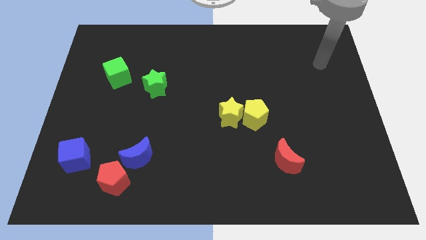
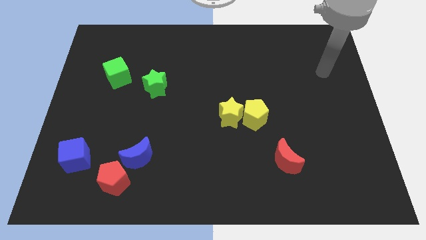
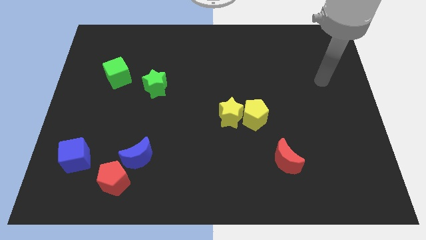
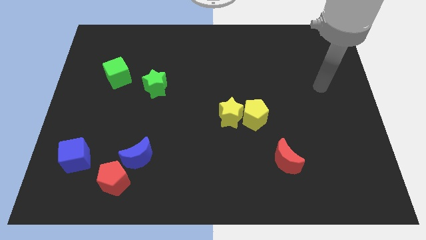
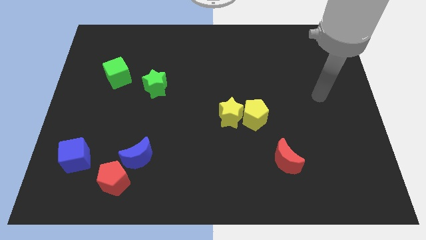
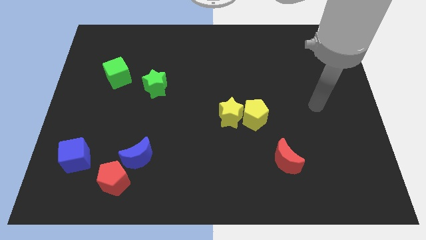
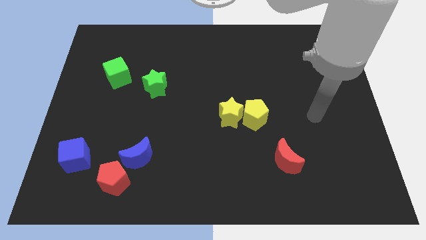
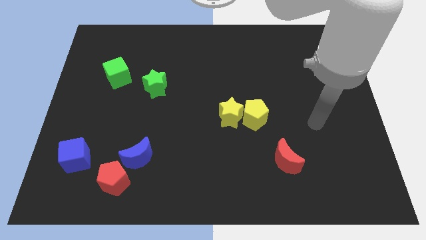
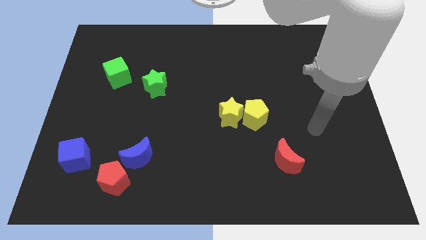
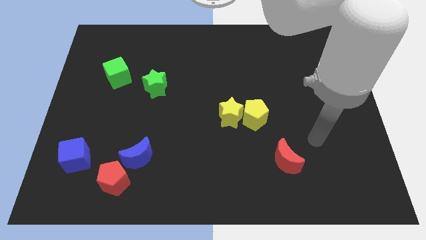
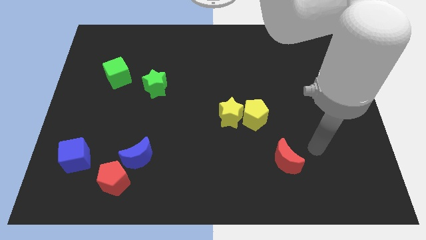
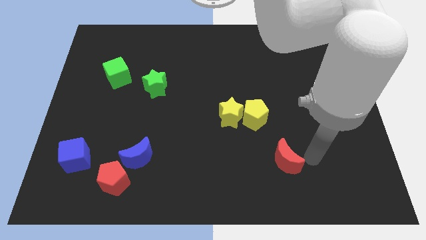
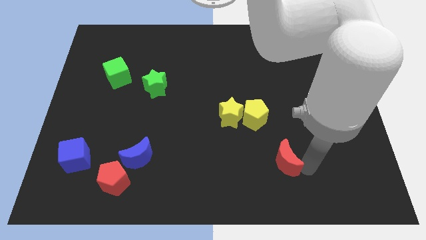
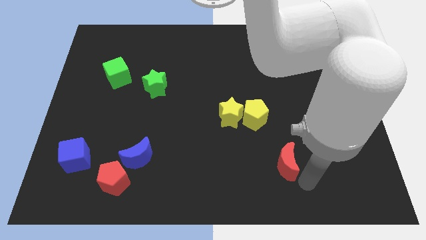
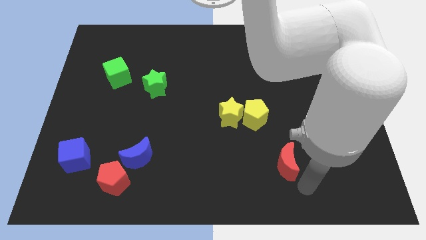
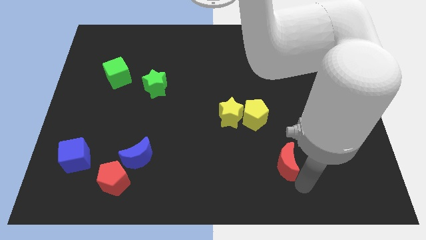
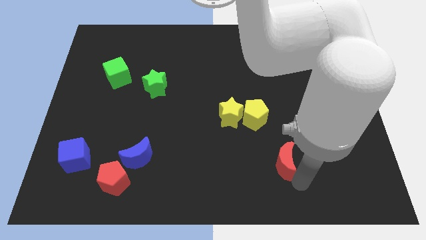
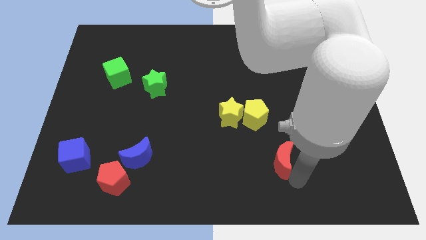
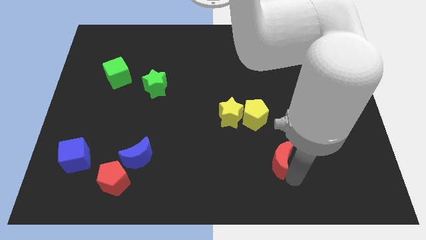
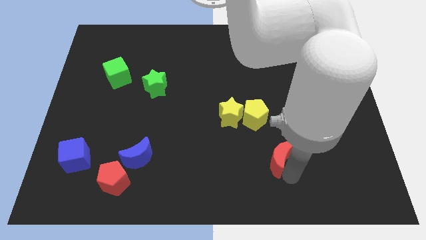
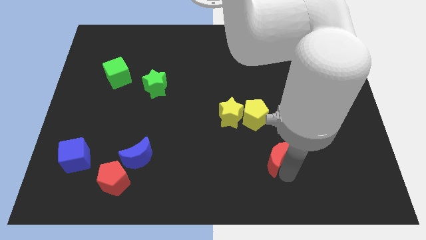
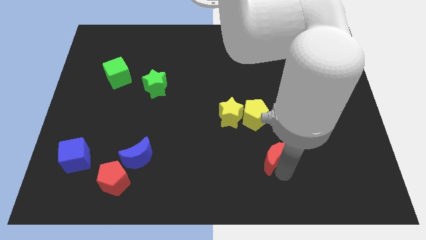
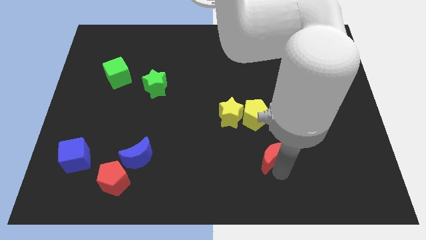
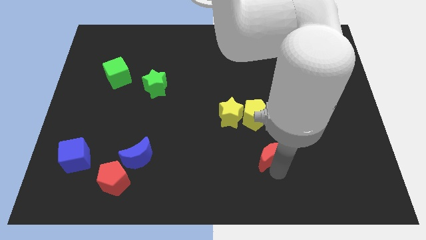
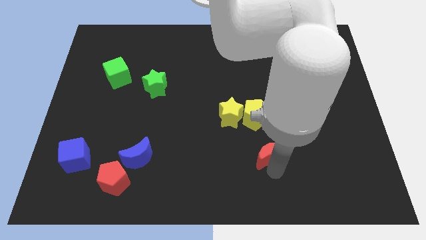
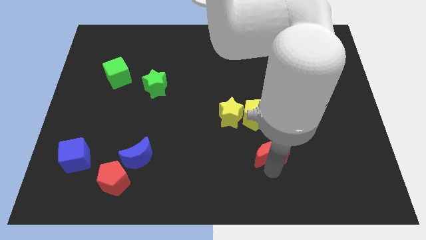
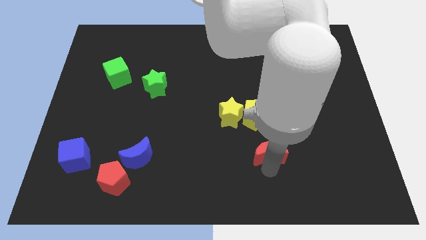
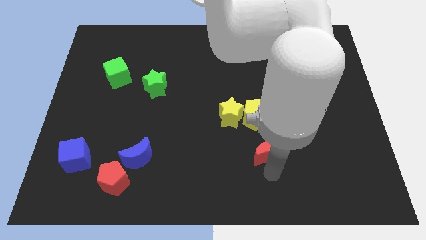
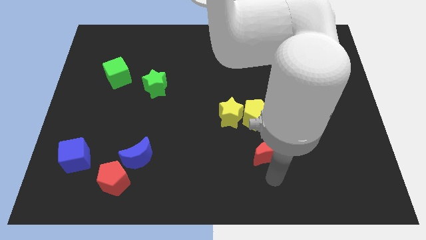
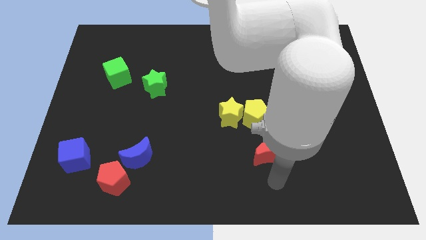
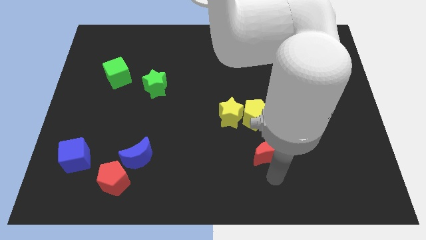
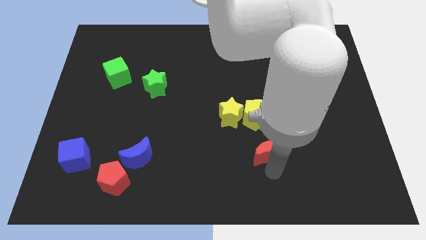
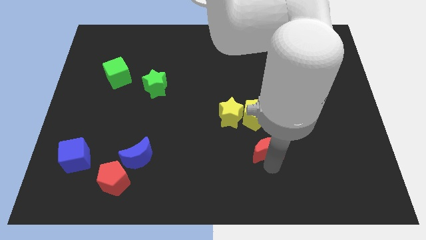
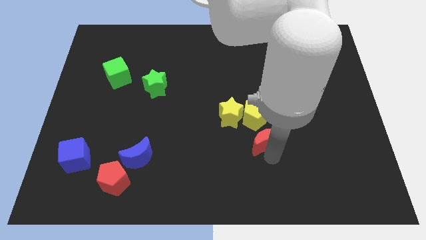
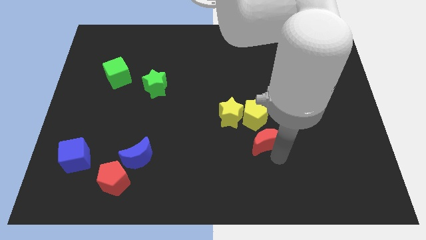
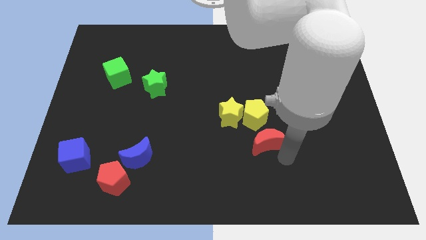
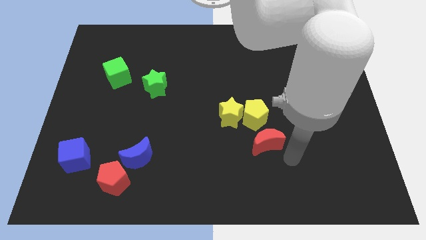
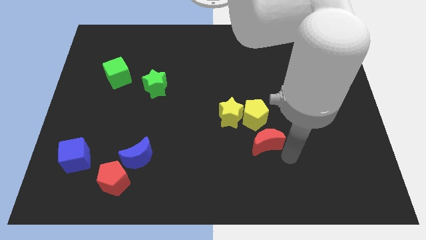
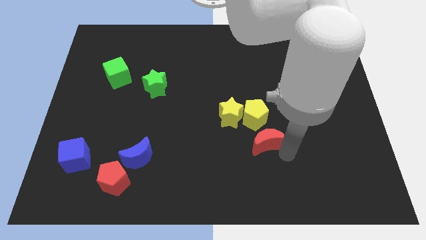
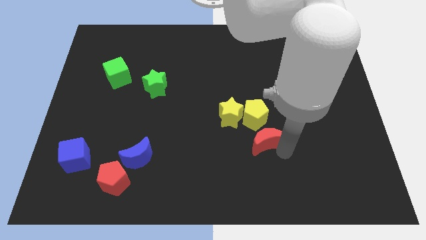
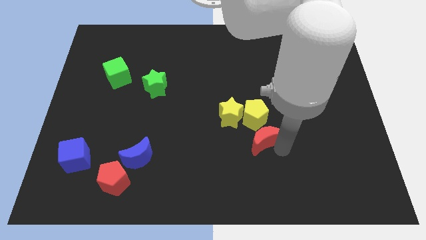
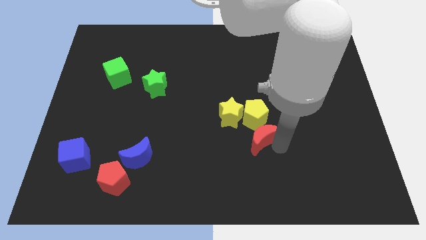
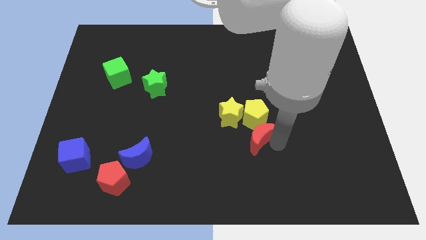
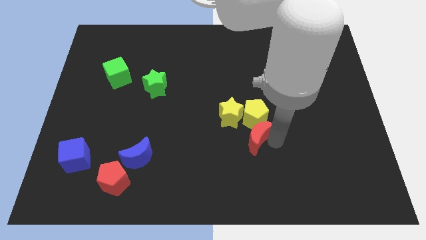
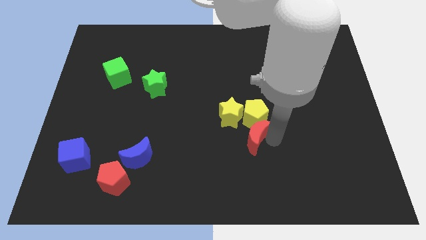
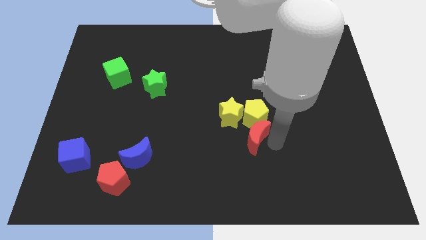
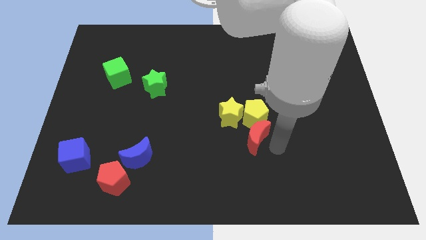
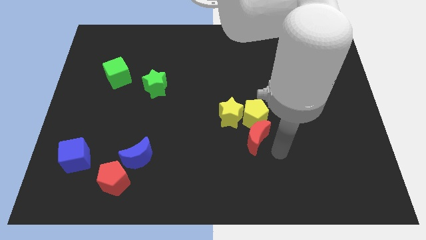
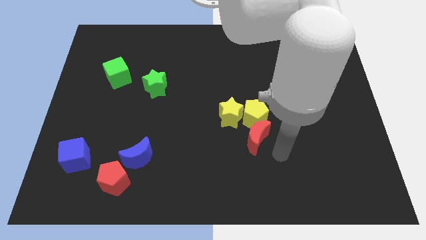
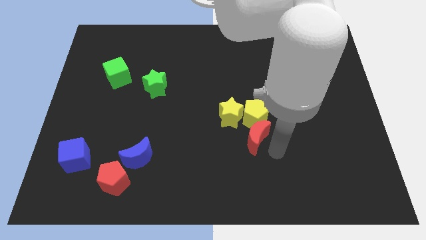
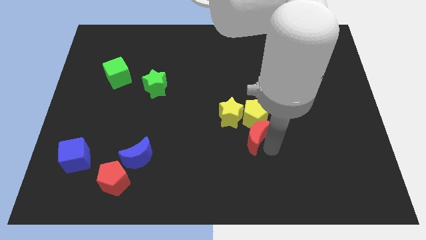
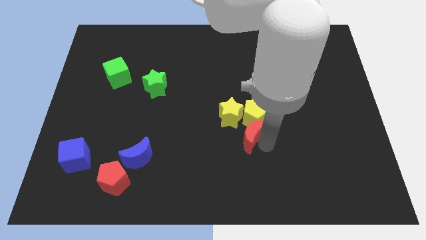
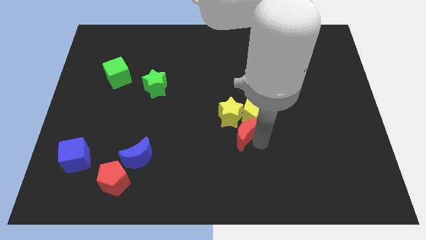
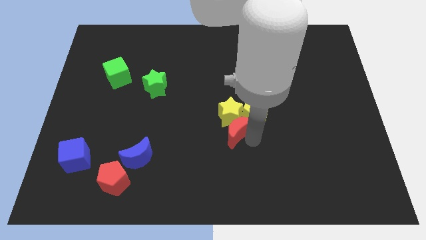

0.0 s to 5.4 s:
move the red moon towards the yellow star

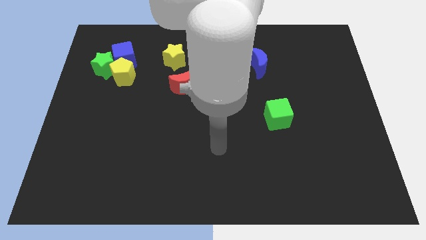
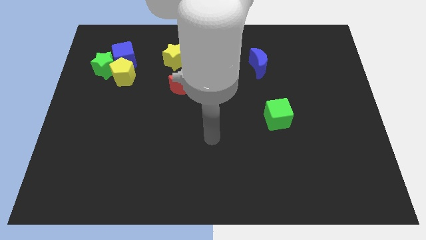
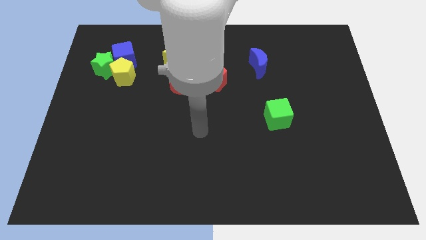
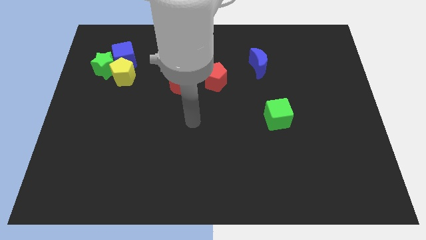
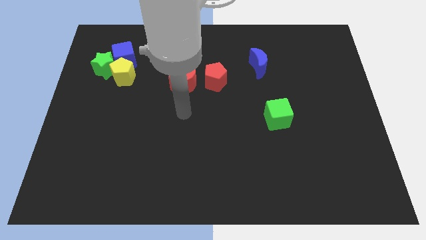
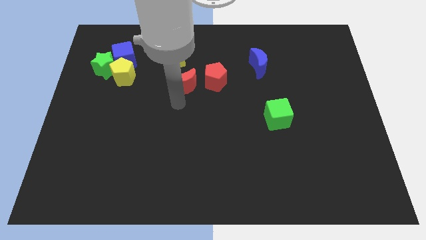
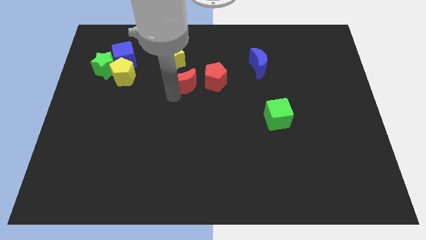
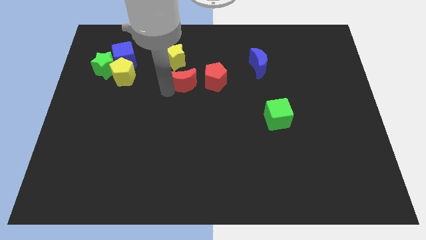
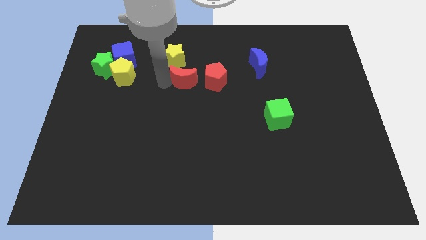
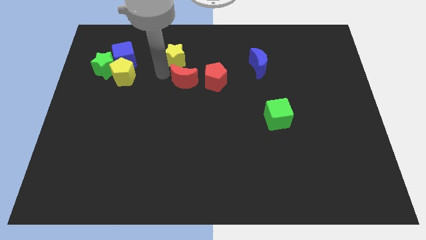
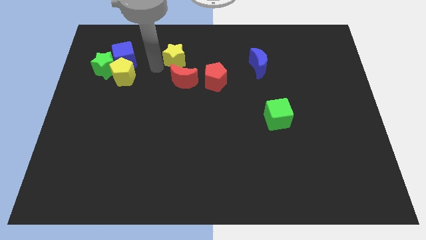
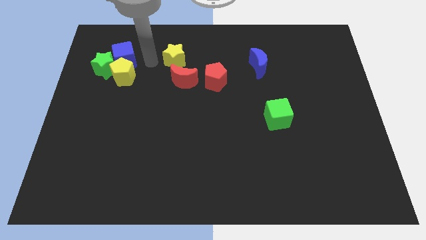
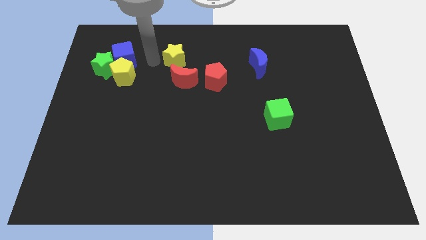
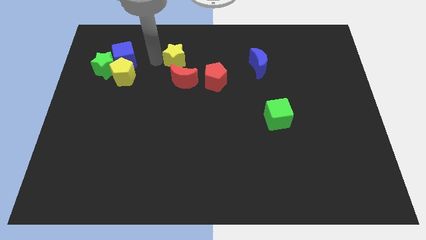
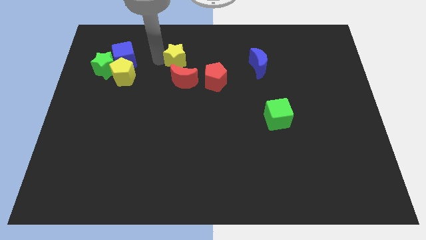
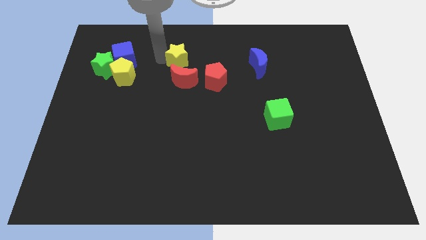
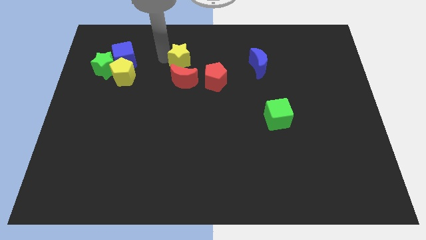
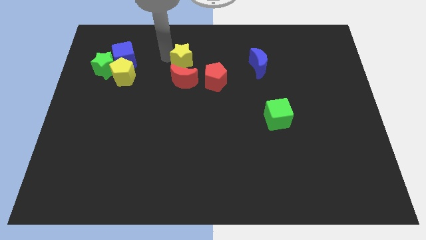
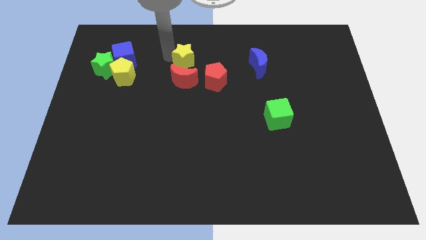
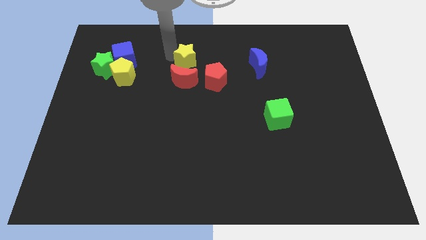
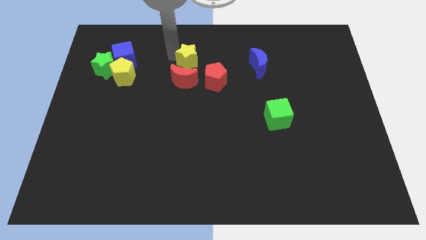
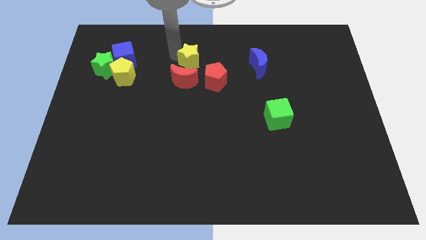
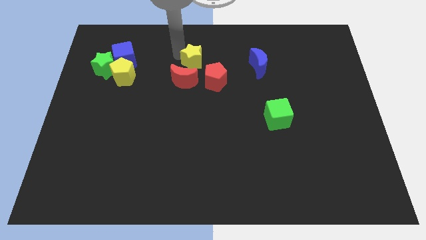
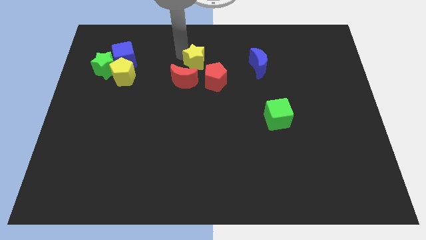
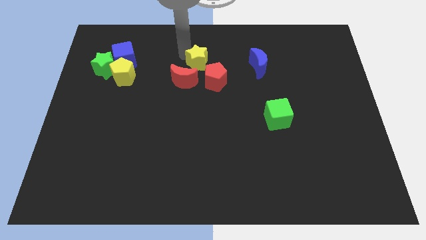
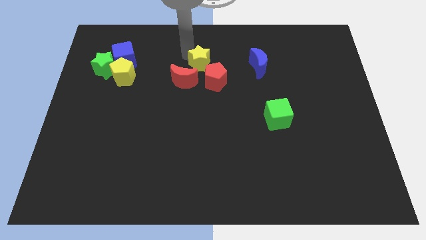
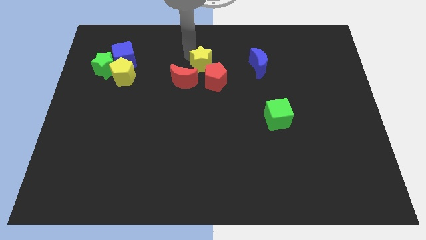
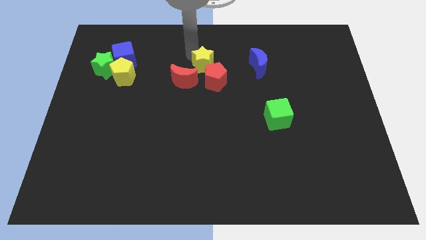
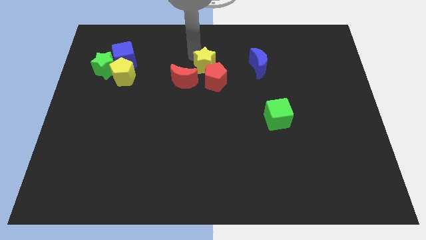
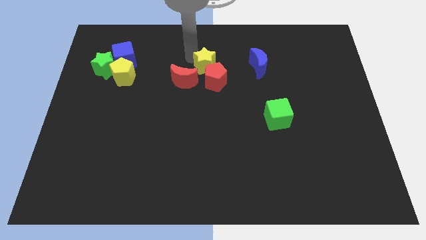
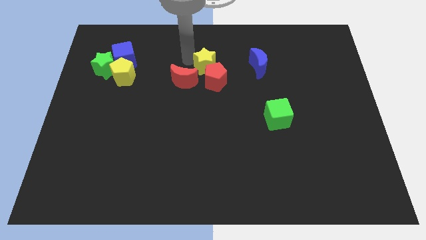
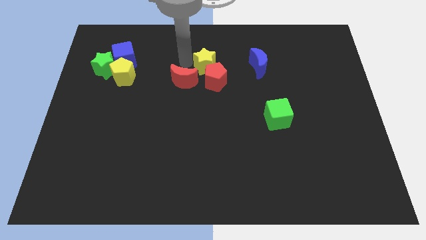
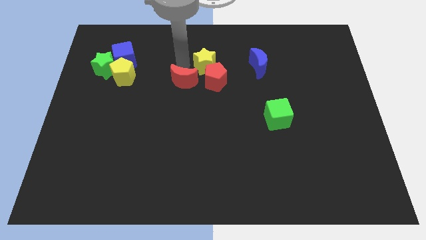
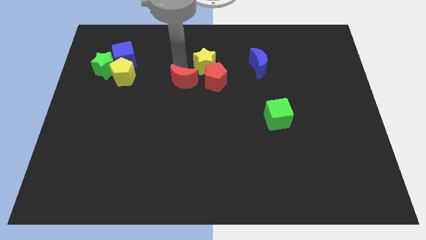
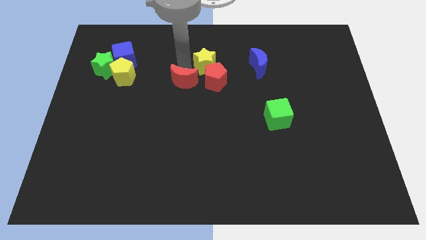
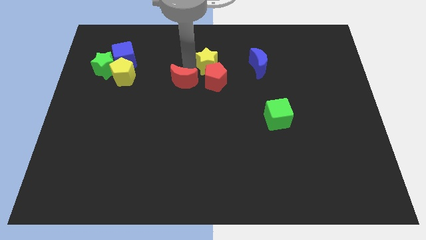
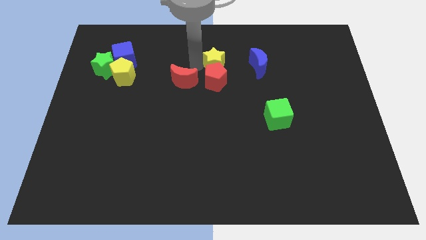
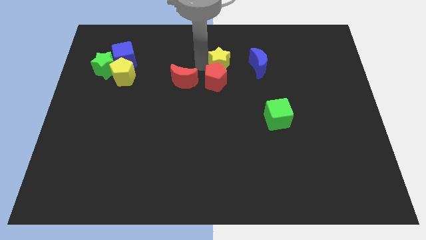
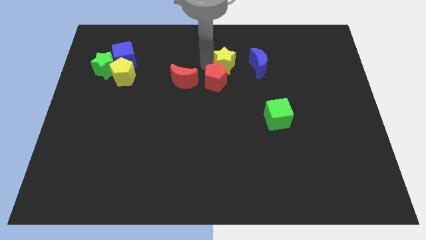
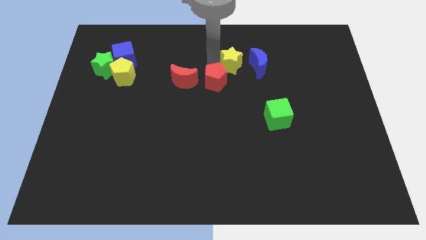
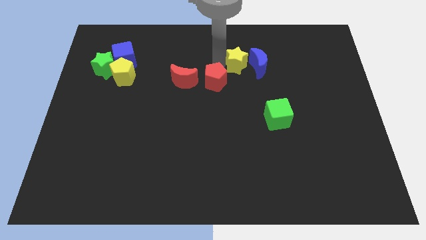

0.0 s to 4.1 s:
push the yellow star next to the blue moon
